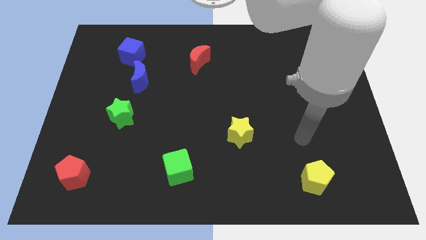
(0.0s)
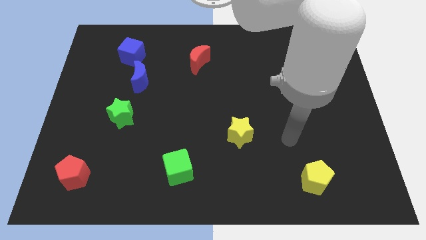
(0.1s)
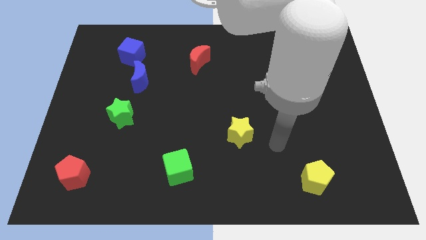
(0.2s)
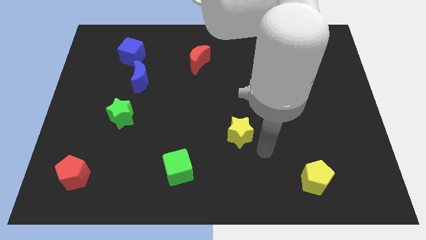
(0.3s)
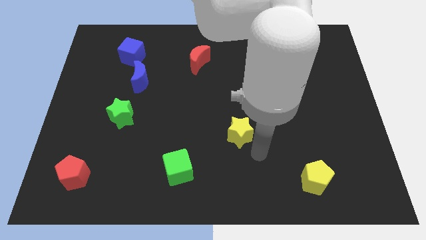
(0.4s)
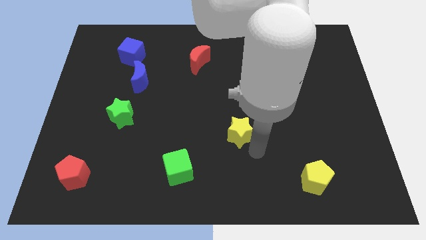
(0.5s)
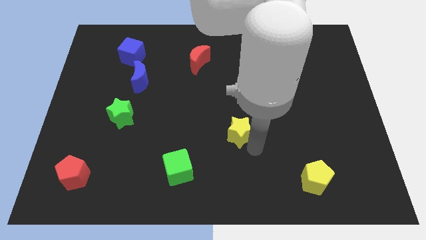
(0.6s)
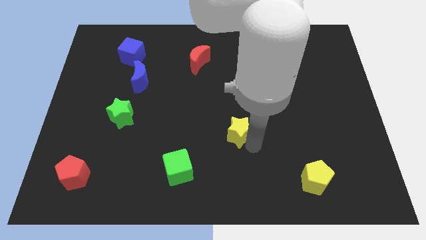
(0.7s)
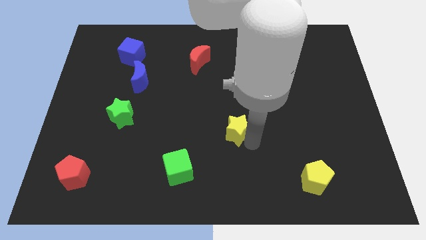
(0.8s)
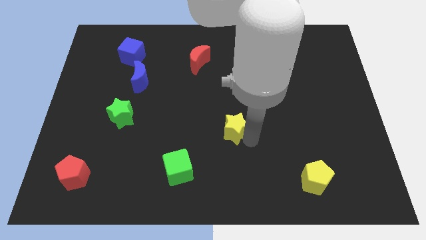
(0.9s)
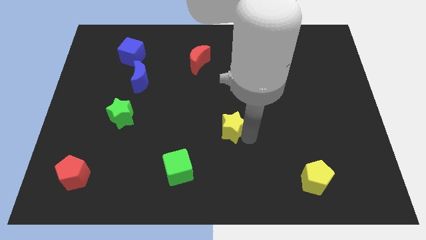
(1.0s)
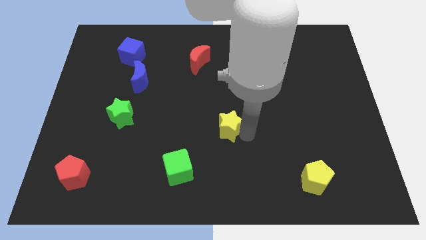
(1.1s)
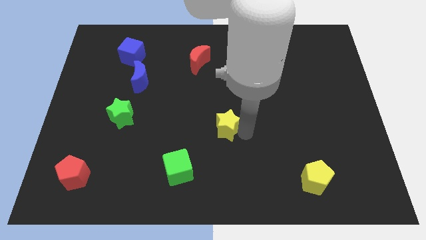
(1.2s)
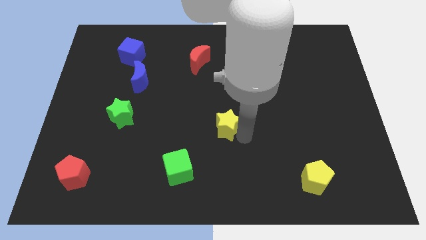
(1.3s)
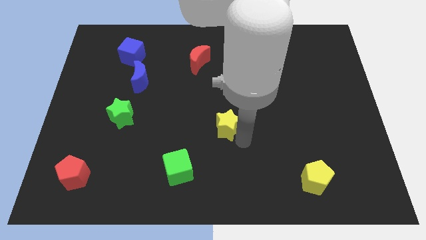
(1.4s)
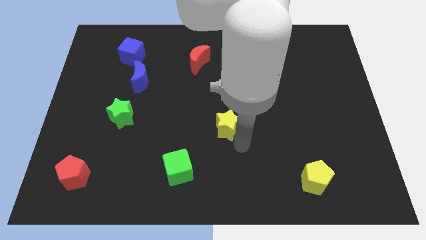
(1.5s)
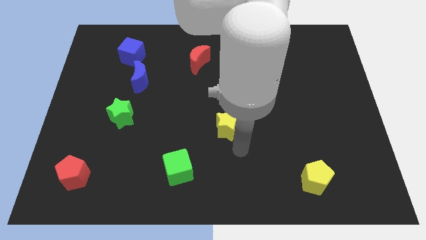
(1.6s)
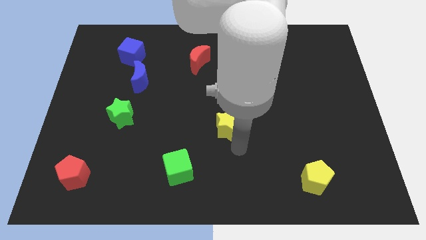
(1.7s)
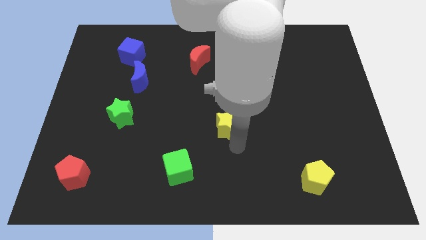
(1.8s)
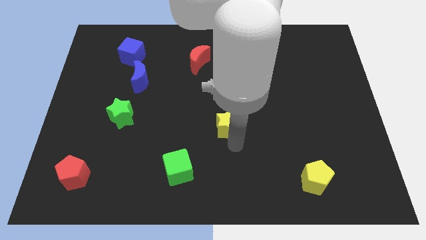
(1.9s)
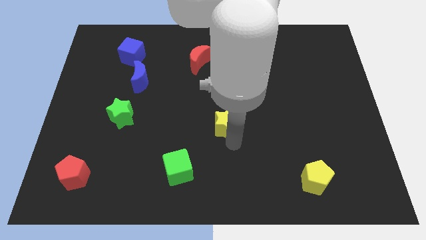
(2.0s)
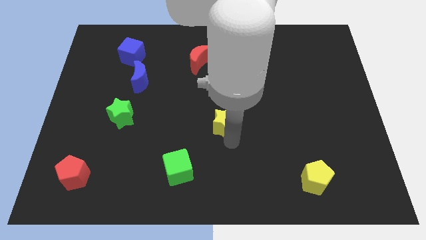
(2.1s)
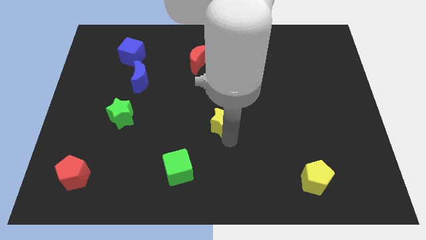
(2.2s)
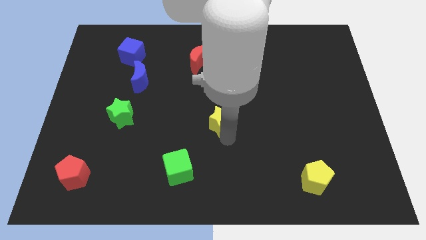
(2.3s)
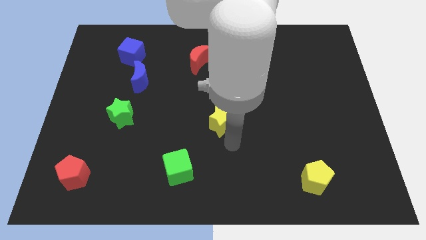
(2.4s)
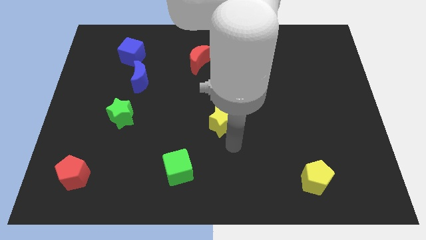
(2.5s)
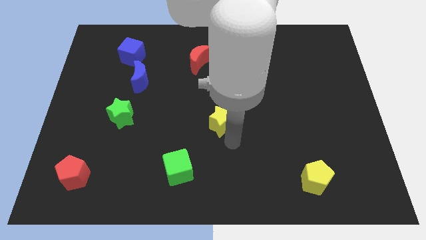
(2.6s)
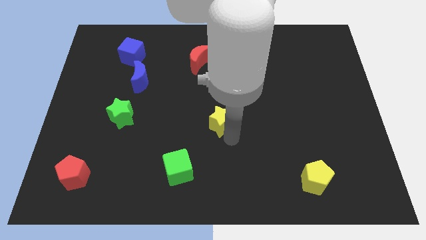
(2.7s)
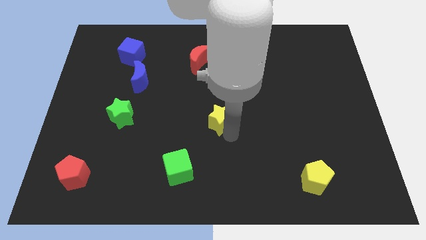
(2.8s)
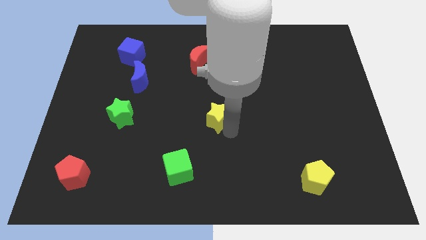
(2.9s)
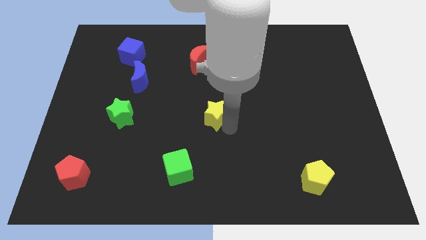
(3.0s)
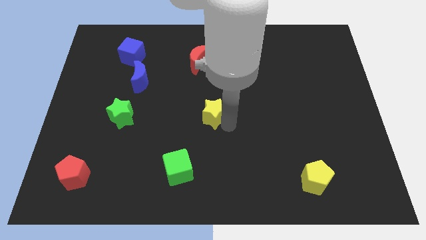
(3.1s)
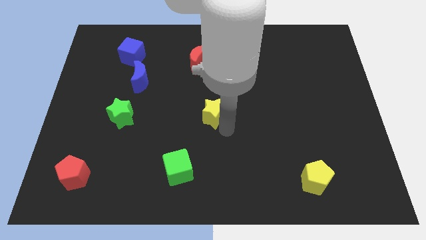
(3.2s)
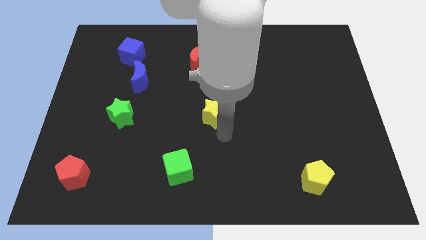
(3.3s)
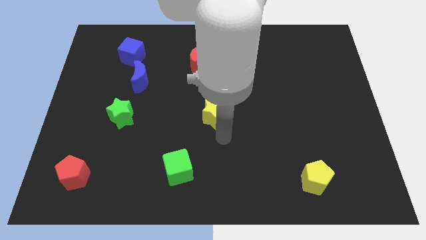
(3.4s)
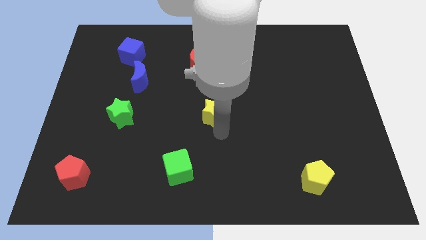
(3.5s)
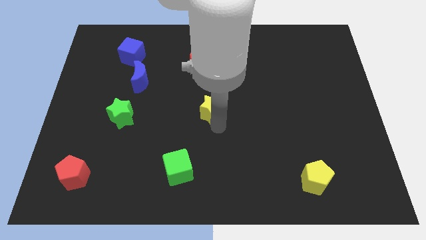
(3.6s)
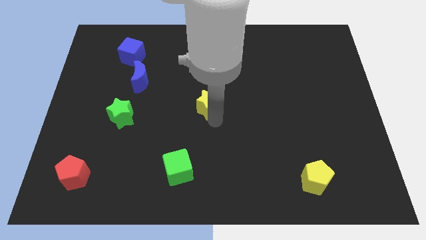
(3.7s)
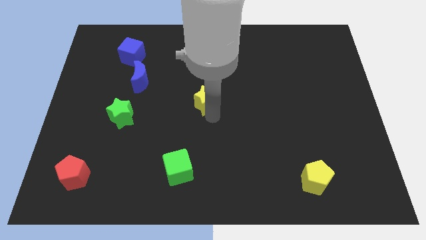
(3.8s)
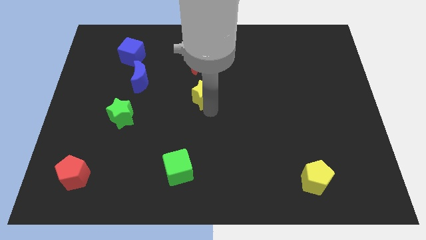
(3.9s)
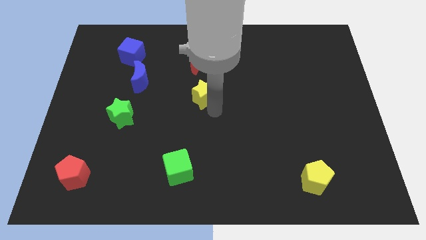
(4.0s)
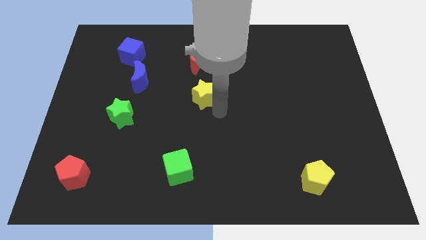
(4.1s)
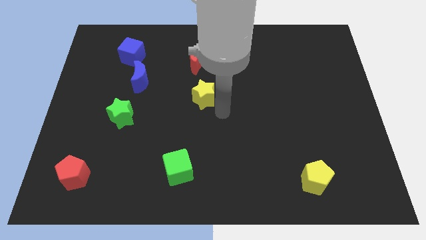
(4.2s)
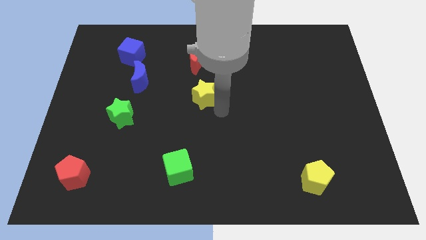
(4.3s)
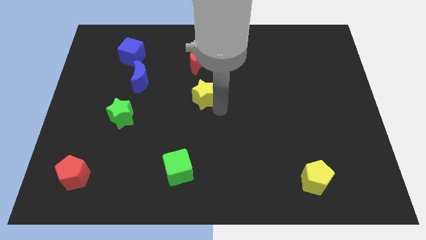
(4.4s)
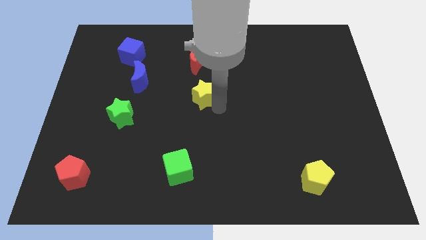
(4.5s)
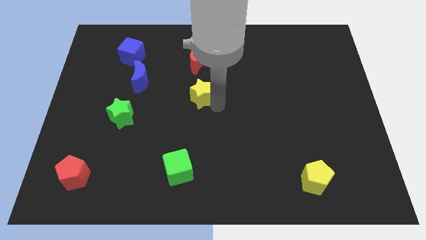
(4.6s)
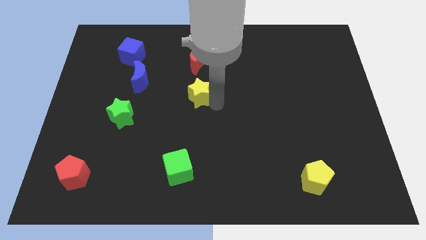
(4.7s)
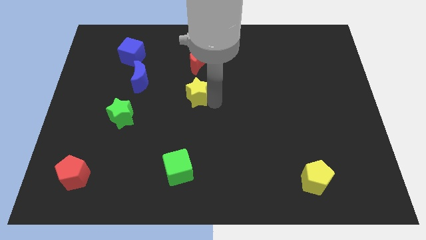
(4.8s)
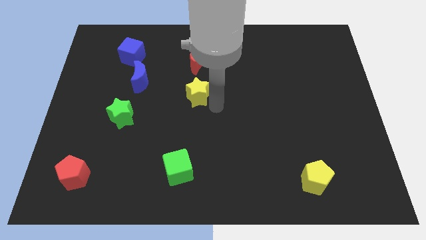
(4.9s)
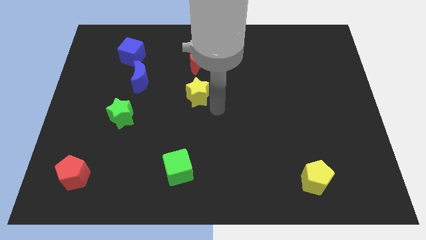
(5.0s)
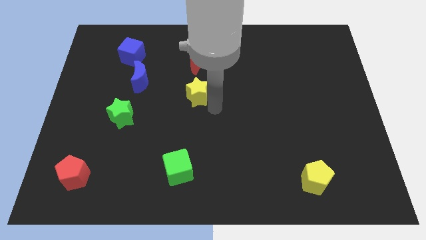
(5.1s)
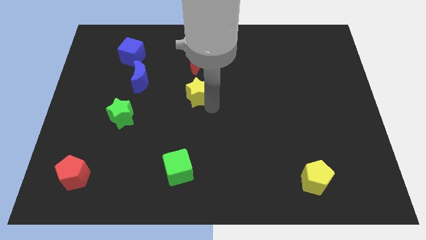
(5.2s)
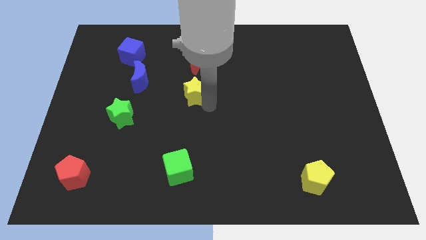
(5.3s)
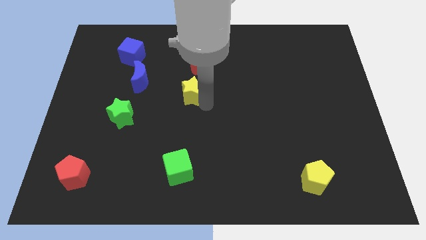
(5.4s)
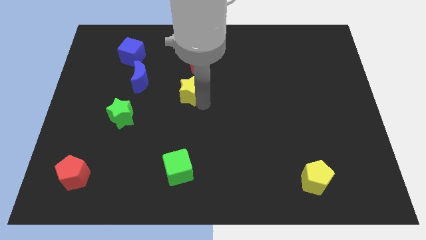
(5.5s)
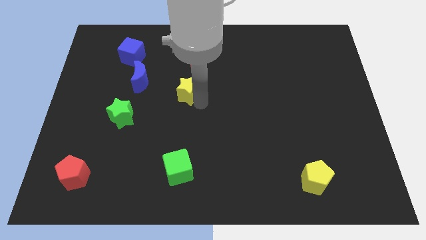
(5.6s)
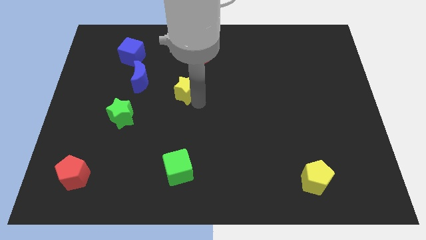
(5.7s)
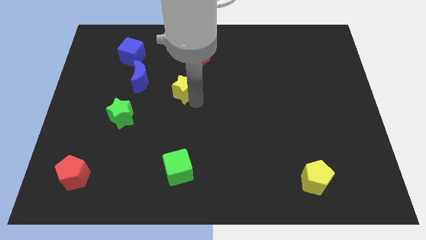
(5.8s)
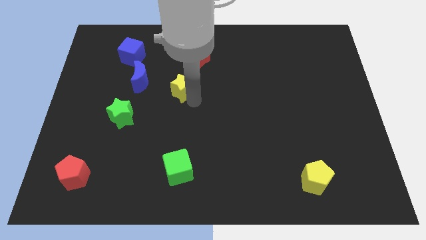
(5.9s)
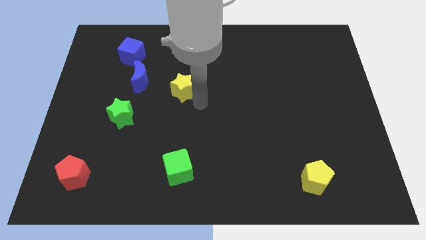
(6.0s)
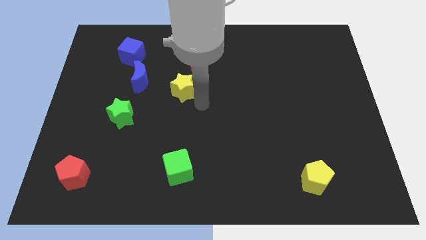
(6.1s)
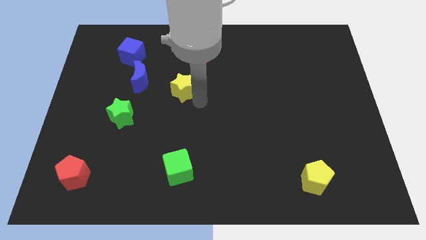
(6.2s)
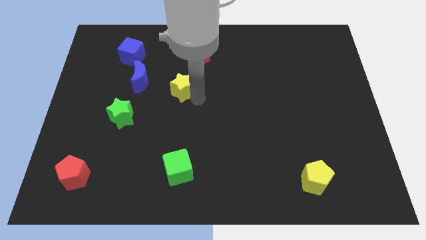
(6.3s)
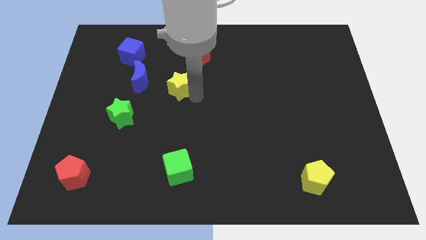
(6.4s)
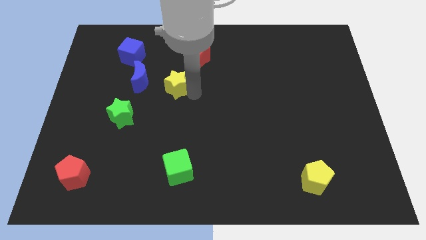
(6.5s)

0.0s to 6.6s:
slide the yellow star up and then left

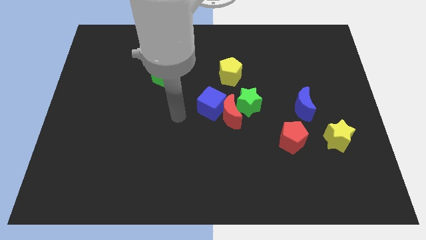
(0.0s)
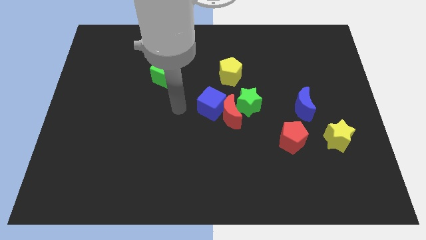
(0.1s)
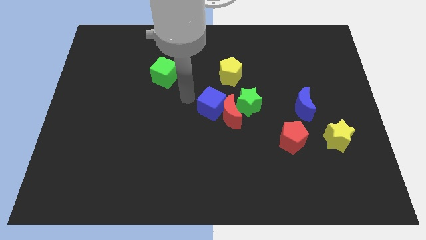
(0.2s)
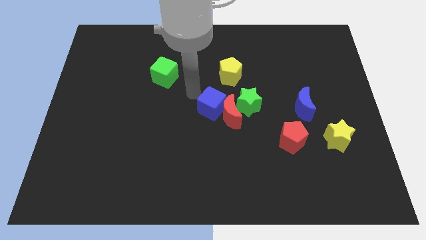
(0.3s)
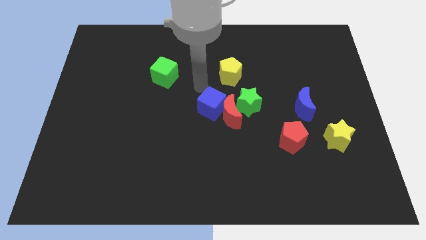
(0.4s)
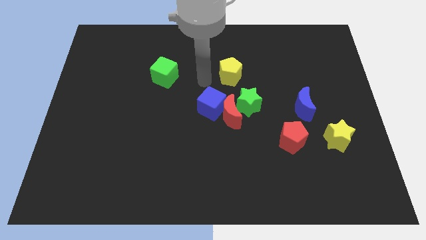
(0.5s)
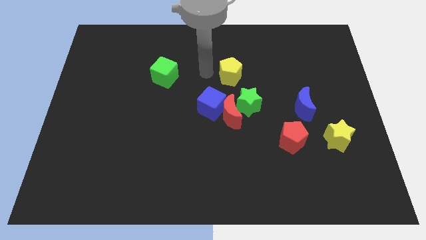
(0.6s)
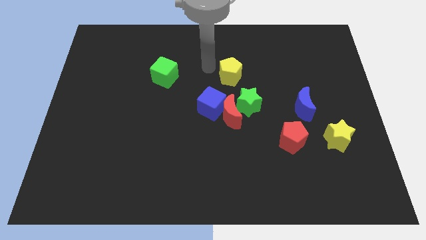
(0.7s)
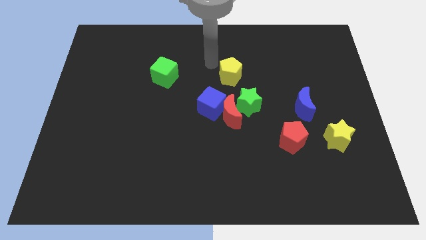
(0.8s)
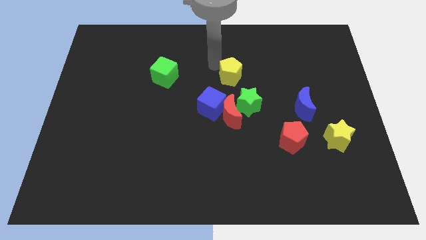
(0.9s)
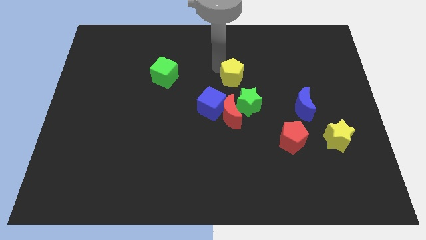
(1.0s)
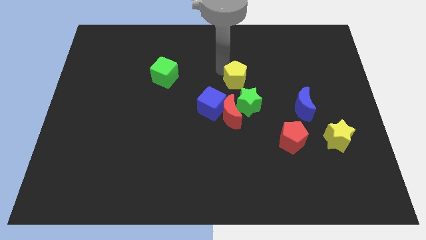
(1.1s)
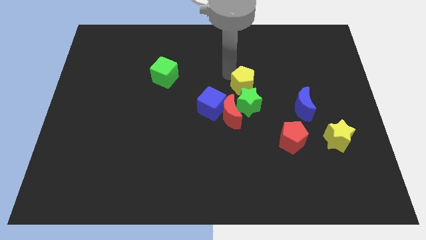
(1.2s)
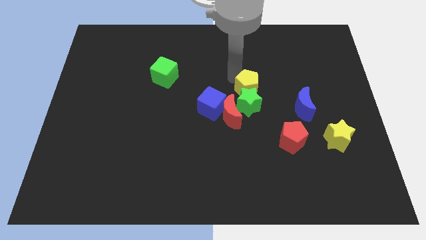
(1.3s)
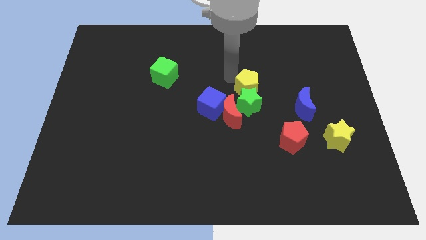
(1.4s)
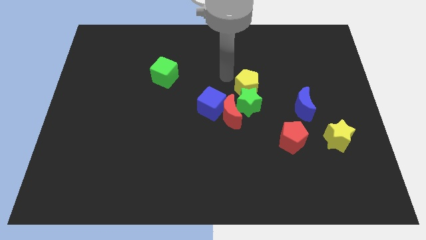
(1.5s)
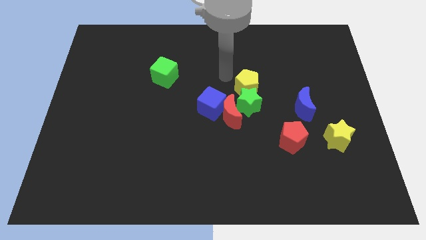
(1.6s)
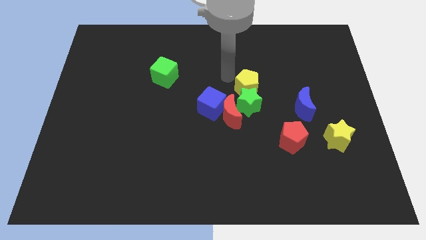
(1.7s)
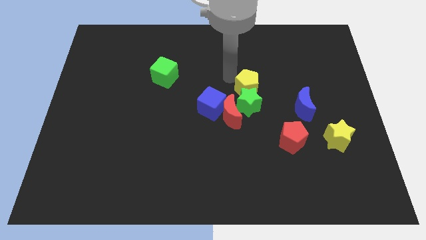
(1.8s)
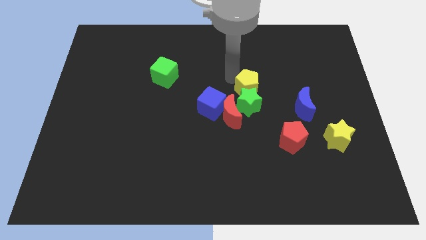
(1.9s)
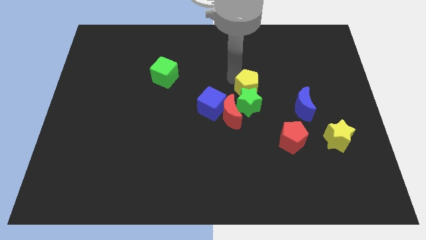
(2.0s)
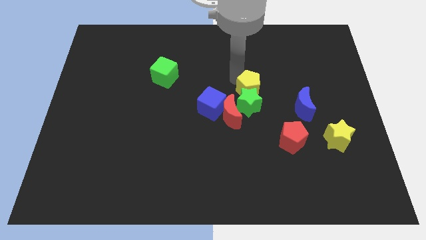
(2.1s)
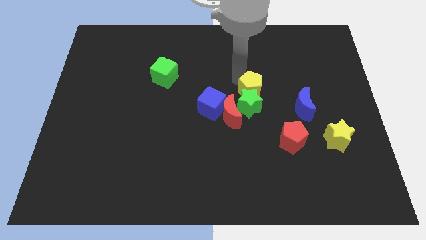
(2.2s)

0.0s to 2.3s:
slightly move the yellow pentagon diagonally down and right
